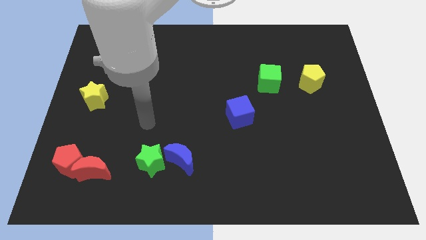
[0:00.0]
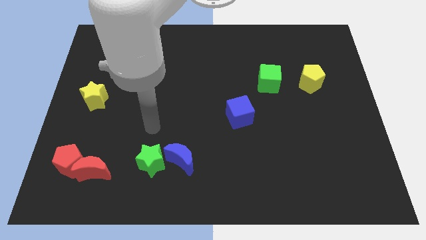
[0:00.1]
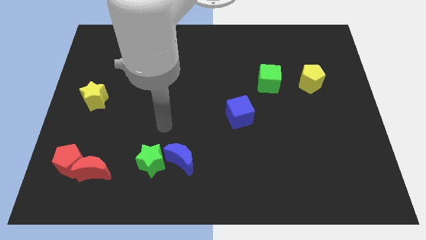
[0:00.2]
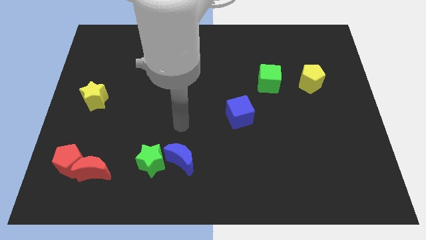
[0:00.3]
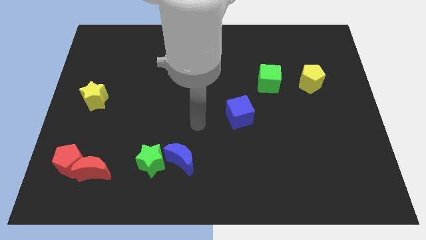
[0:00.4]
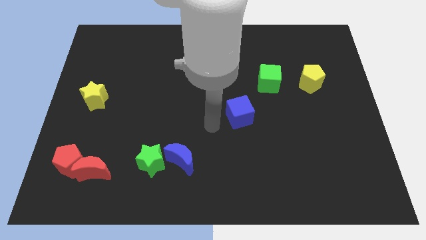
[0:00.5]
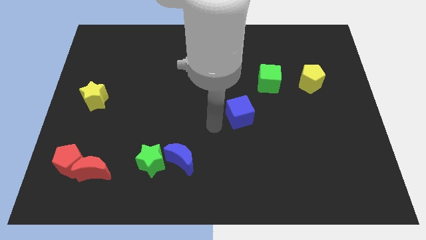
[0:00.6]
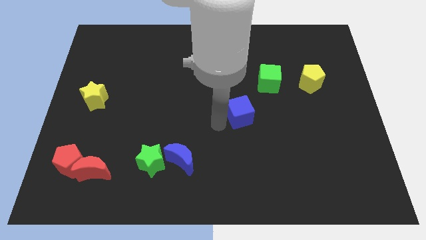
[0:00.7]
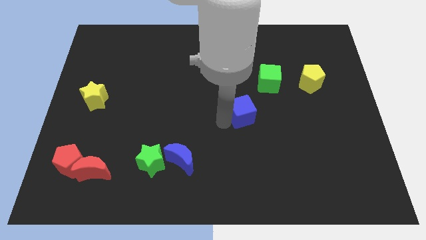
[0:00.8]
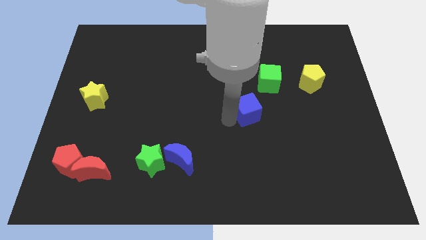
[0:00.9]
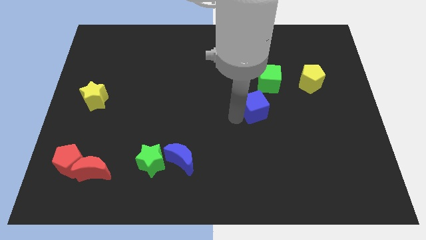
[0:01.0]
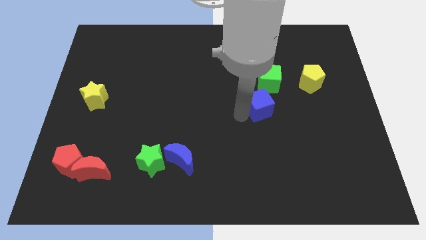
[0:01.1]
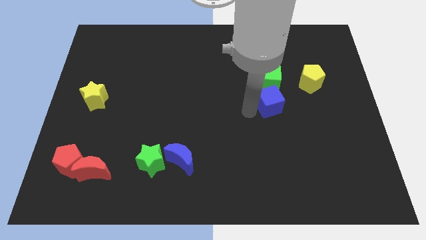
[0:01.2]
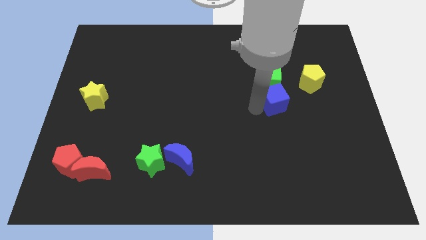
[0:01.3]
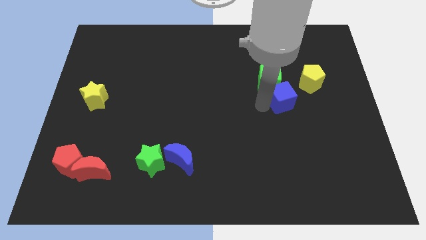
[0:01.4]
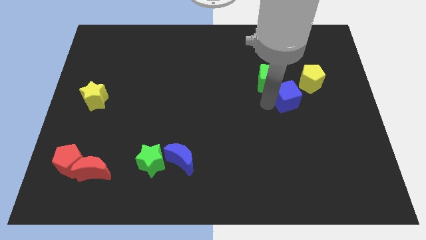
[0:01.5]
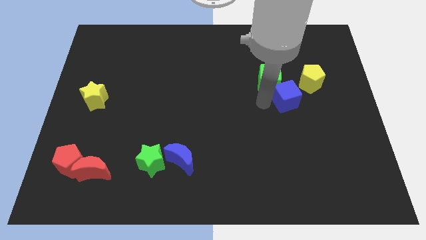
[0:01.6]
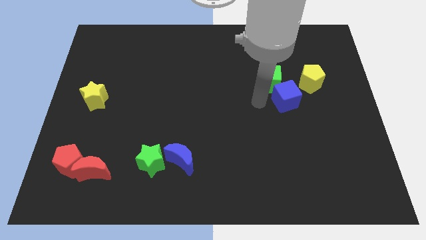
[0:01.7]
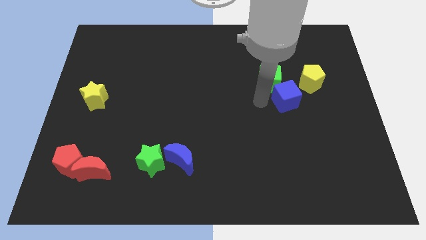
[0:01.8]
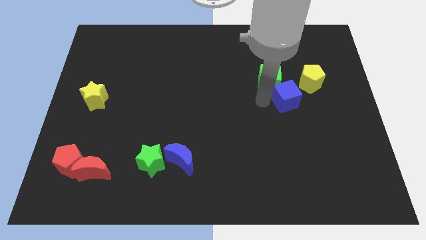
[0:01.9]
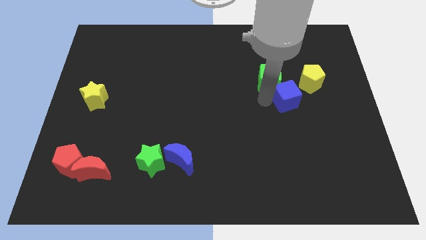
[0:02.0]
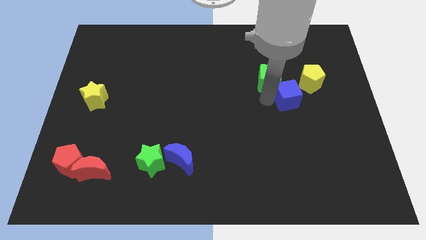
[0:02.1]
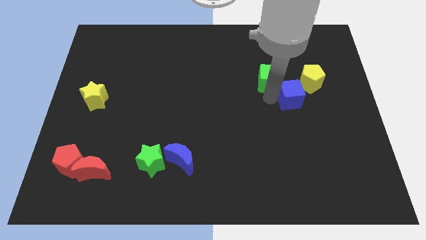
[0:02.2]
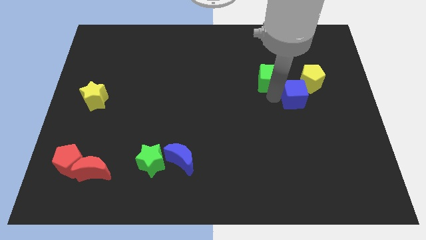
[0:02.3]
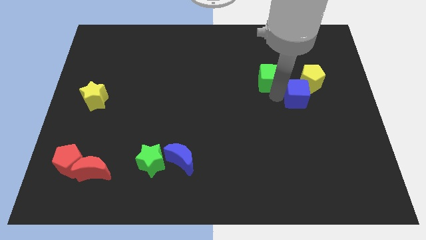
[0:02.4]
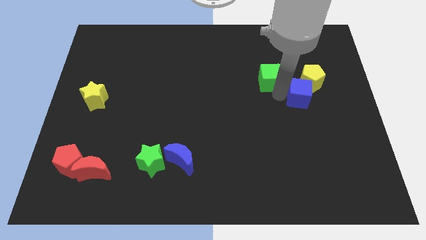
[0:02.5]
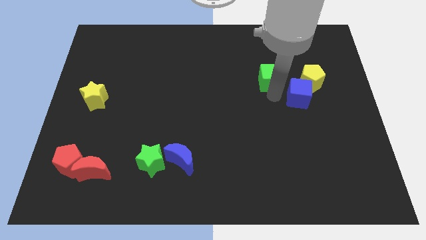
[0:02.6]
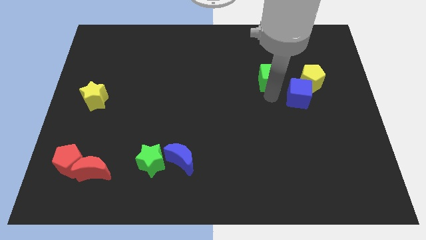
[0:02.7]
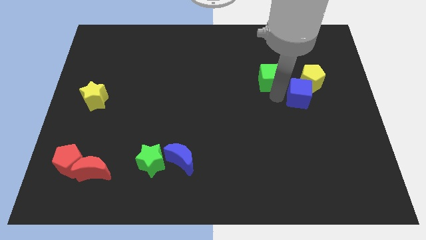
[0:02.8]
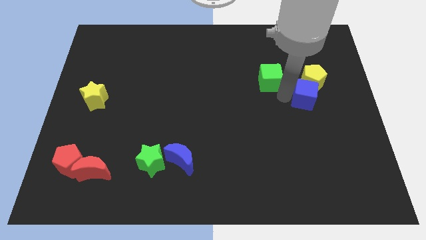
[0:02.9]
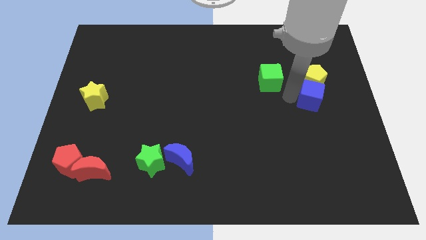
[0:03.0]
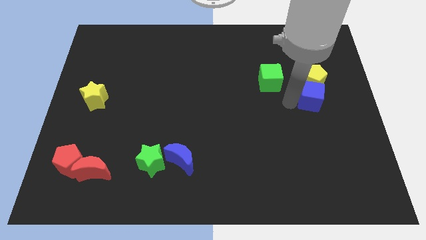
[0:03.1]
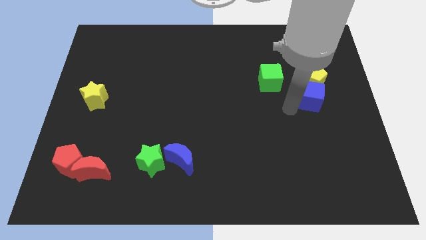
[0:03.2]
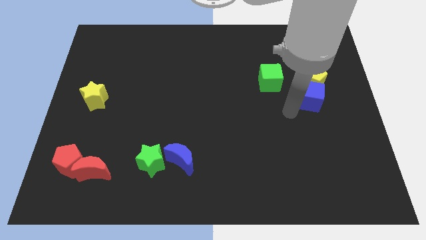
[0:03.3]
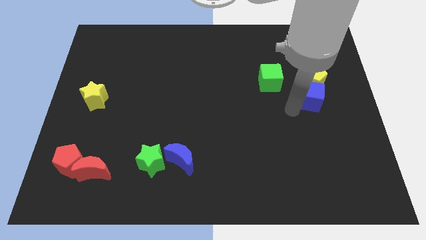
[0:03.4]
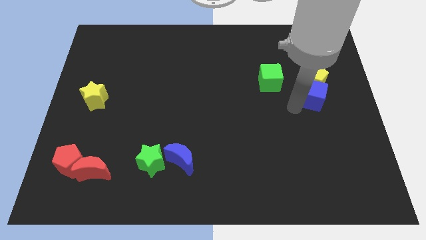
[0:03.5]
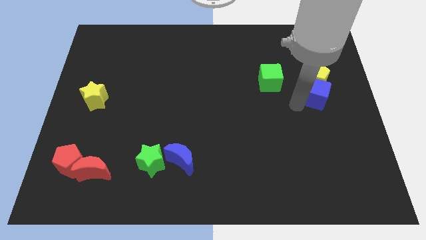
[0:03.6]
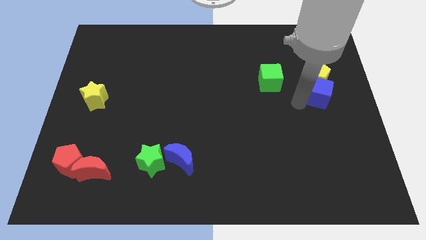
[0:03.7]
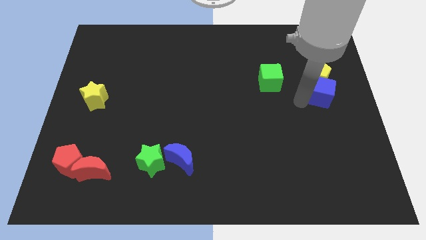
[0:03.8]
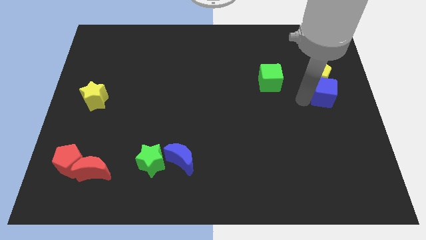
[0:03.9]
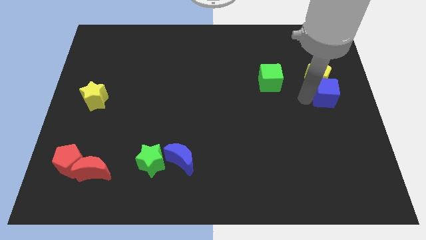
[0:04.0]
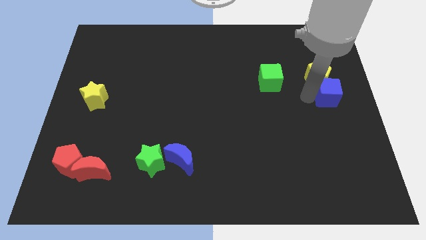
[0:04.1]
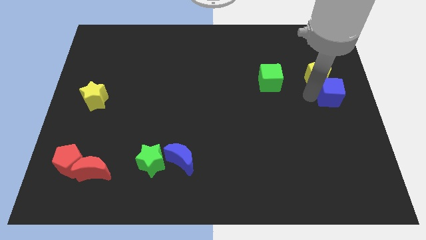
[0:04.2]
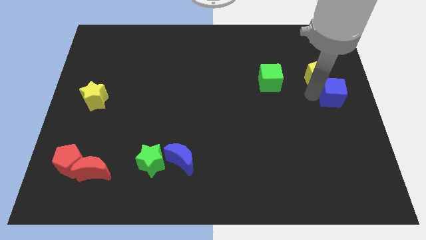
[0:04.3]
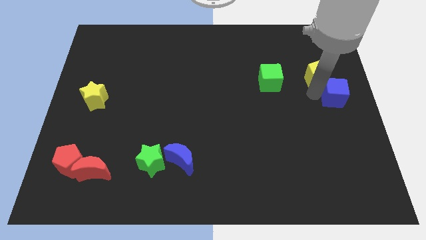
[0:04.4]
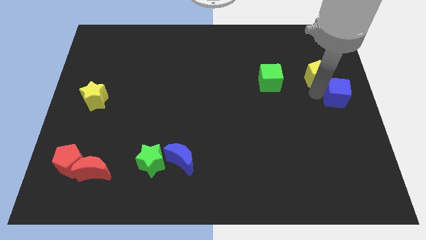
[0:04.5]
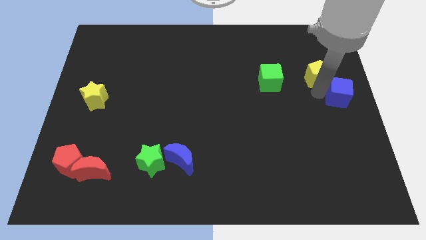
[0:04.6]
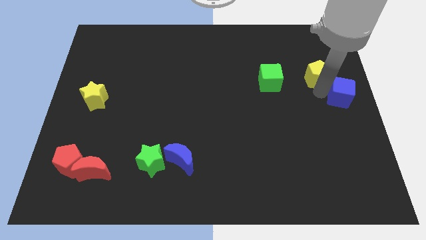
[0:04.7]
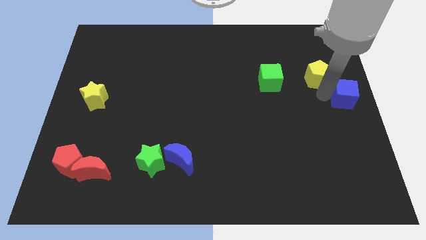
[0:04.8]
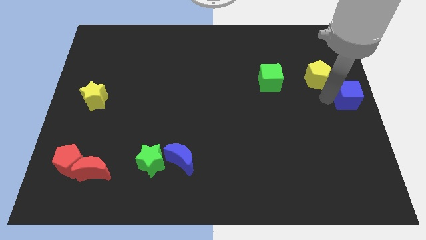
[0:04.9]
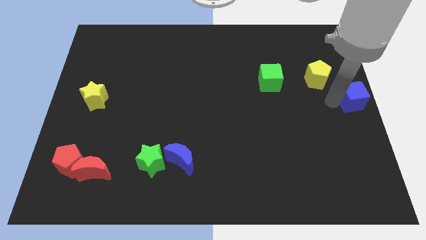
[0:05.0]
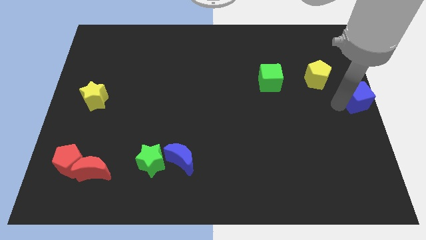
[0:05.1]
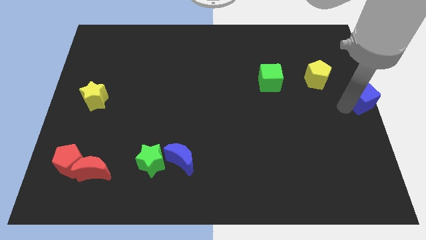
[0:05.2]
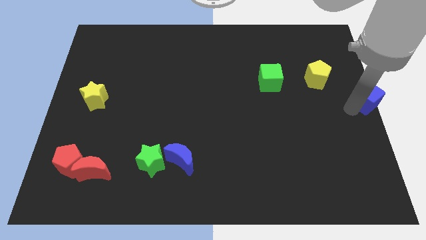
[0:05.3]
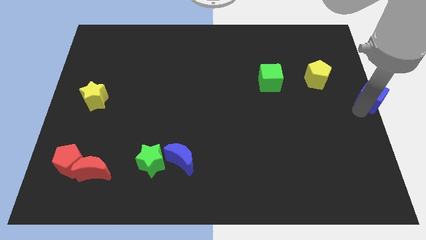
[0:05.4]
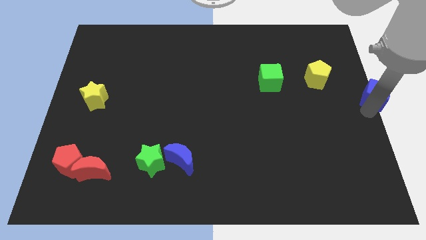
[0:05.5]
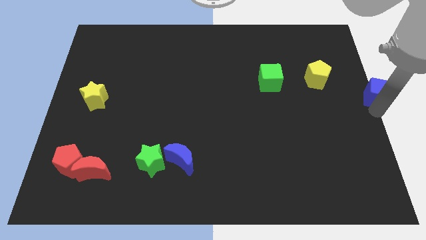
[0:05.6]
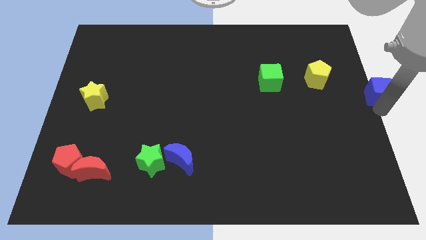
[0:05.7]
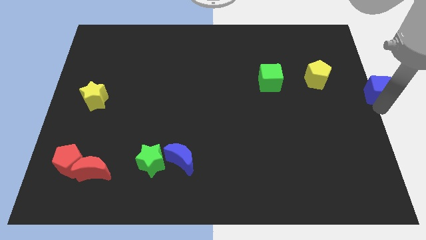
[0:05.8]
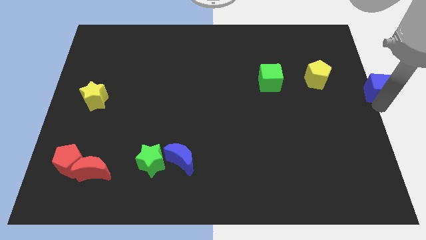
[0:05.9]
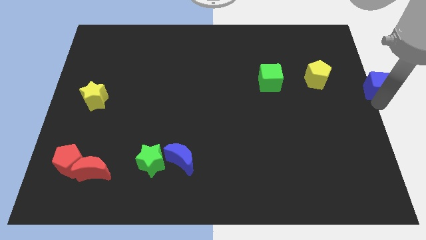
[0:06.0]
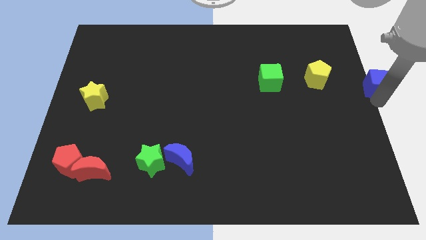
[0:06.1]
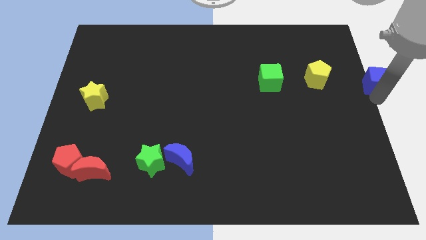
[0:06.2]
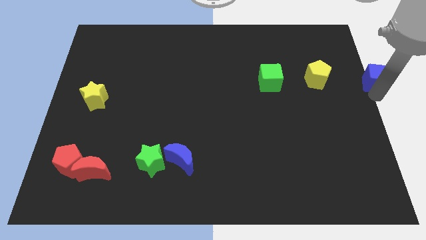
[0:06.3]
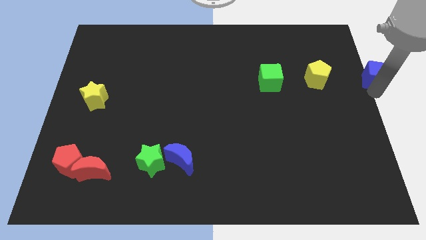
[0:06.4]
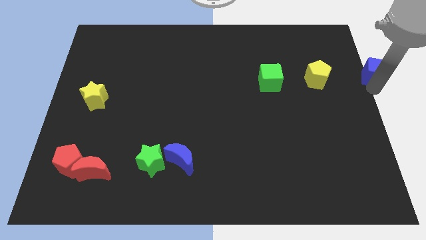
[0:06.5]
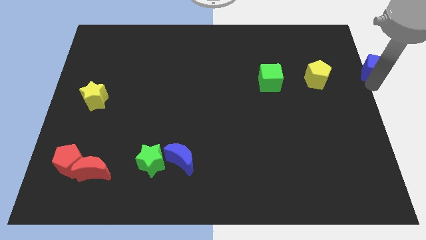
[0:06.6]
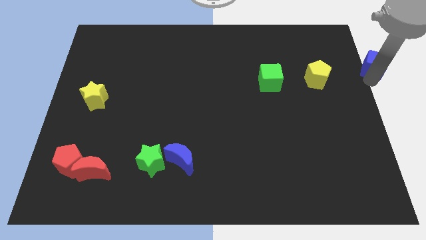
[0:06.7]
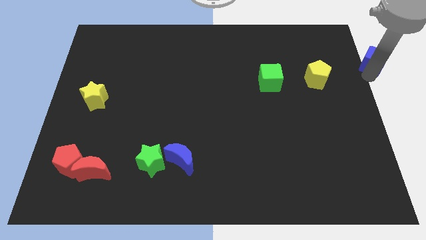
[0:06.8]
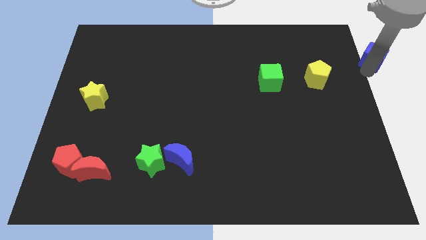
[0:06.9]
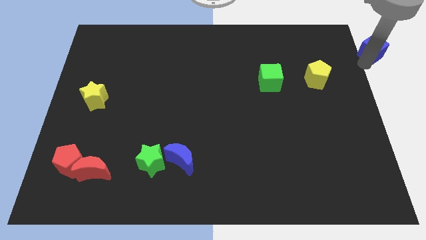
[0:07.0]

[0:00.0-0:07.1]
slide the blue cube to the top right corner
